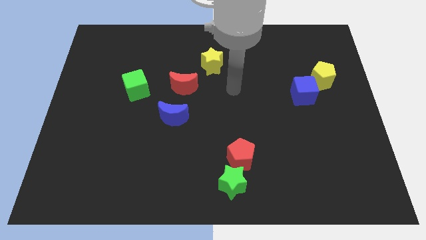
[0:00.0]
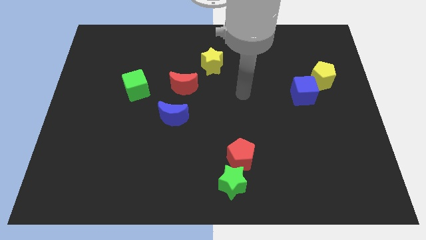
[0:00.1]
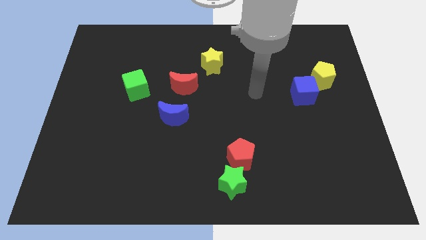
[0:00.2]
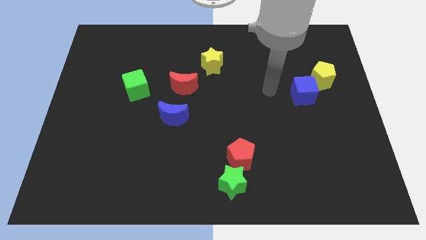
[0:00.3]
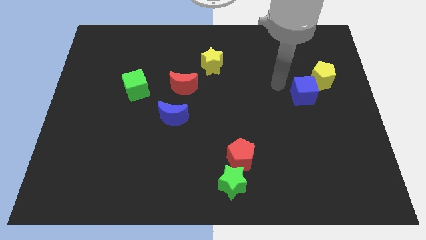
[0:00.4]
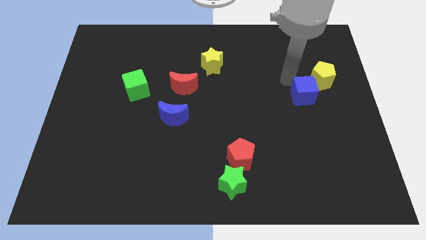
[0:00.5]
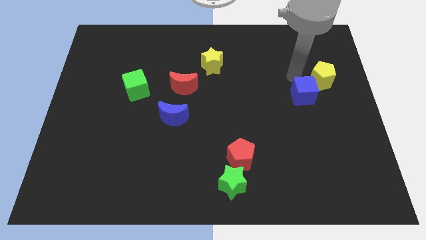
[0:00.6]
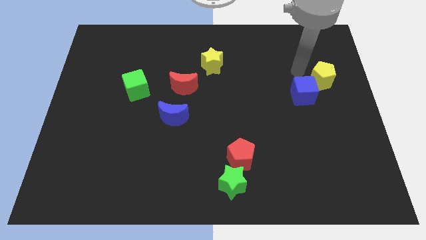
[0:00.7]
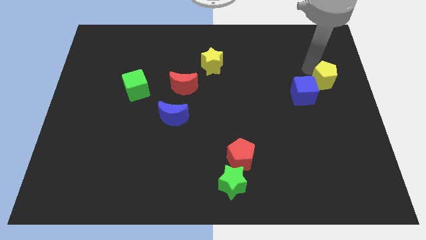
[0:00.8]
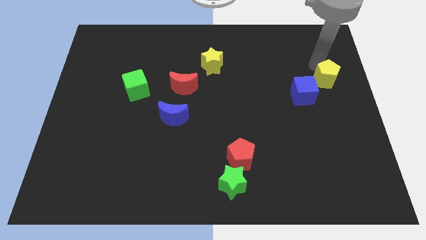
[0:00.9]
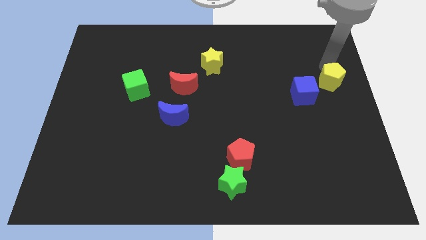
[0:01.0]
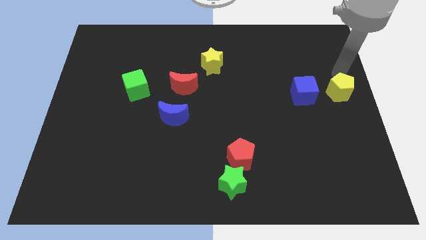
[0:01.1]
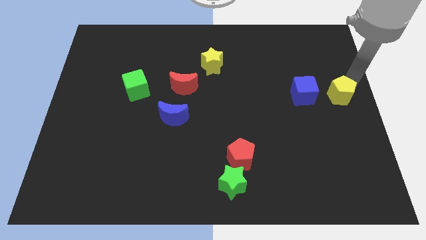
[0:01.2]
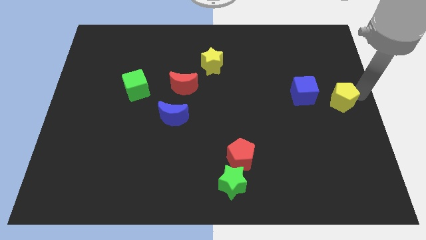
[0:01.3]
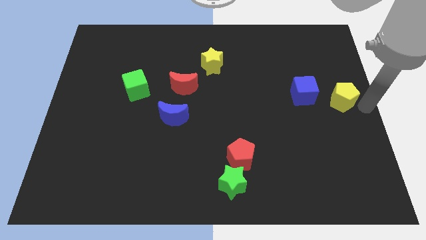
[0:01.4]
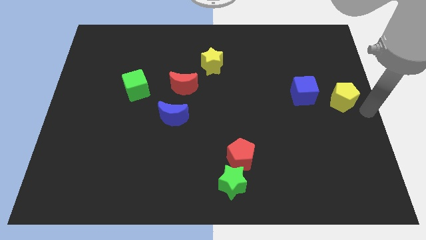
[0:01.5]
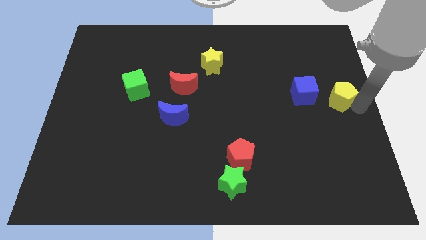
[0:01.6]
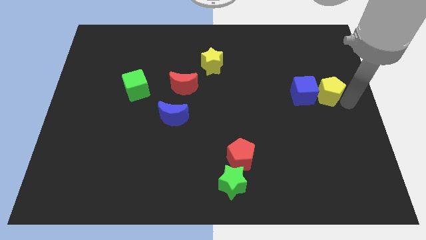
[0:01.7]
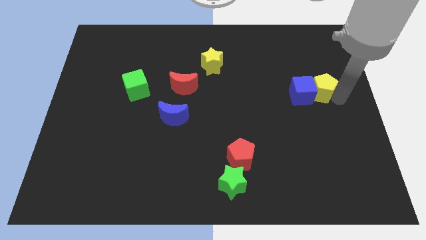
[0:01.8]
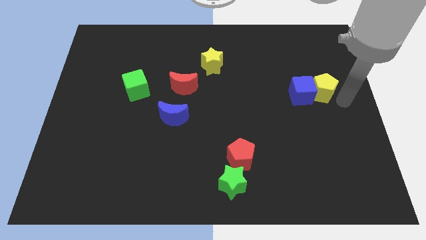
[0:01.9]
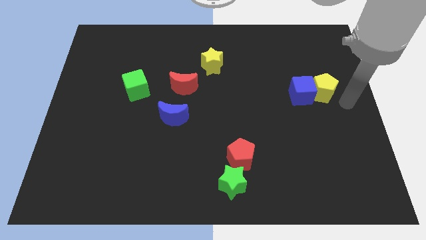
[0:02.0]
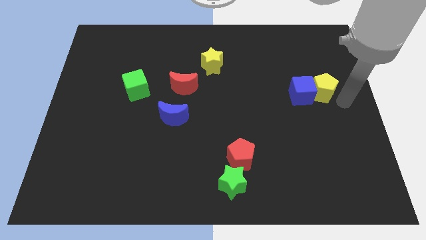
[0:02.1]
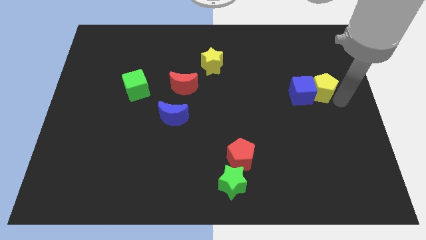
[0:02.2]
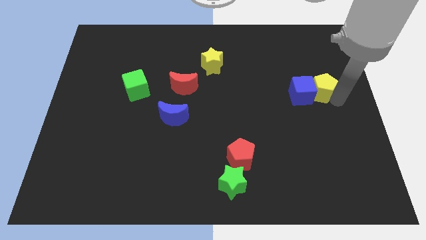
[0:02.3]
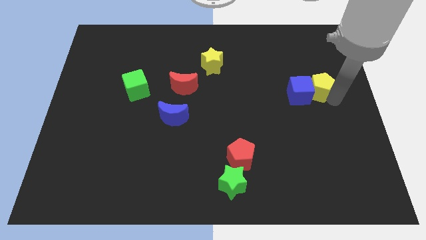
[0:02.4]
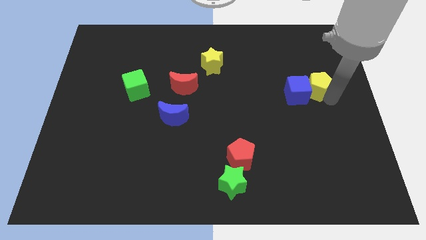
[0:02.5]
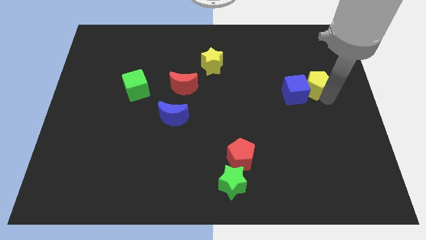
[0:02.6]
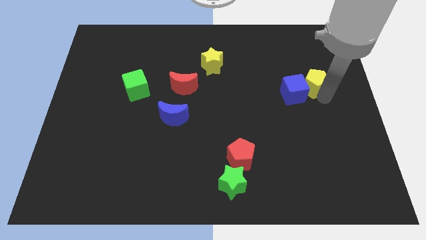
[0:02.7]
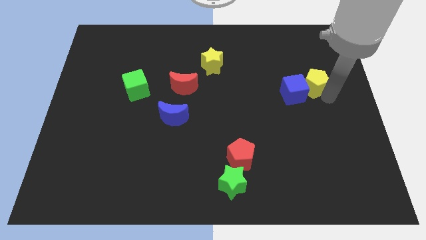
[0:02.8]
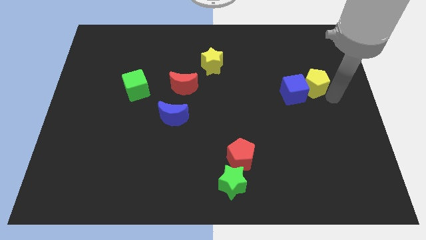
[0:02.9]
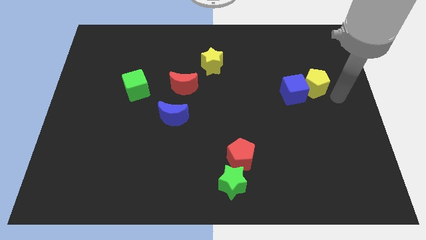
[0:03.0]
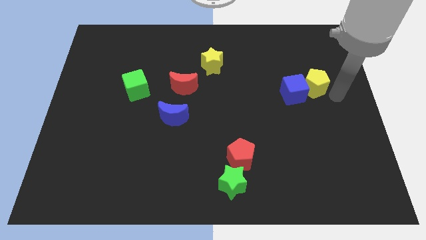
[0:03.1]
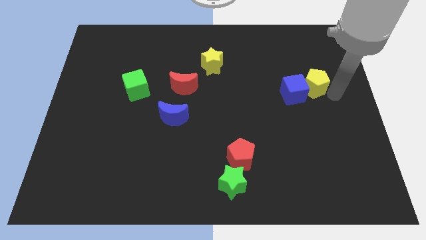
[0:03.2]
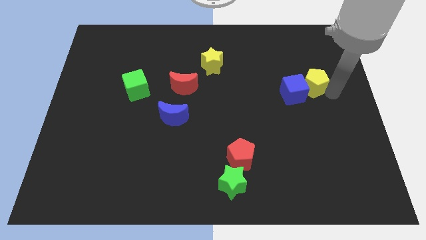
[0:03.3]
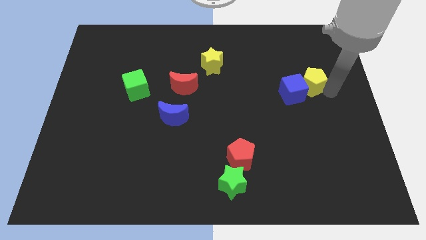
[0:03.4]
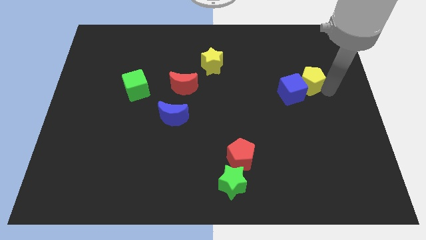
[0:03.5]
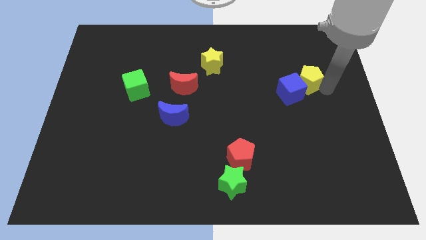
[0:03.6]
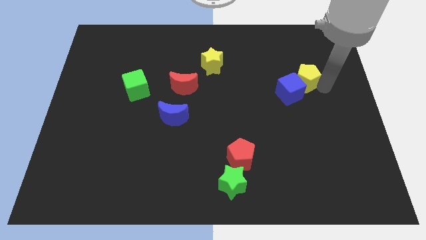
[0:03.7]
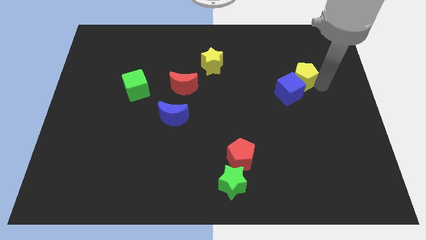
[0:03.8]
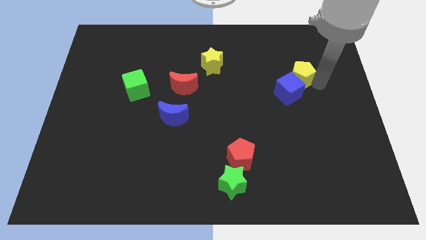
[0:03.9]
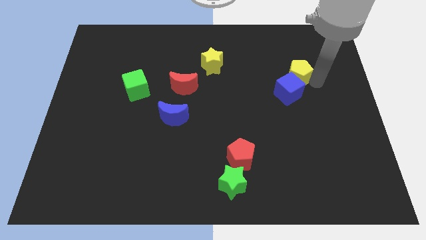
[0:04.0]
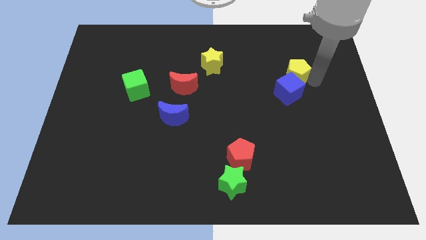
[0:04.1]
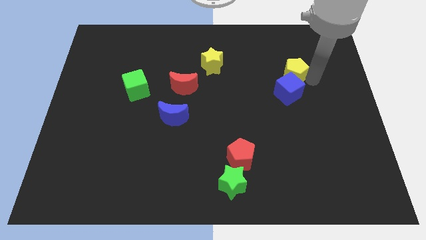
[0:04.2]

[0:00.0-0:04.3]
slightly slide the yellow pentagon left

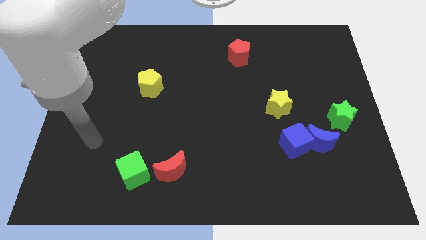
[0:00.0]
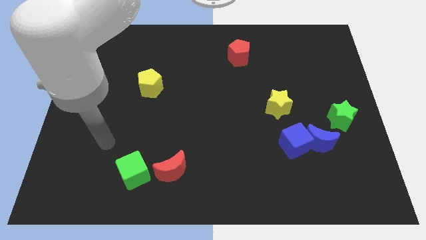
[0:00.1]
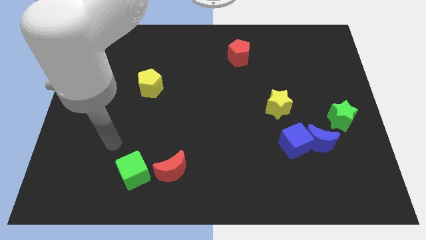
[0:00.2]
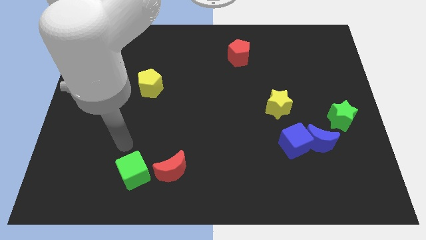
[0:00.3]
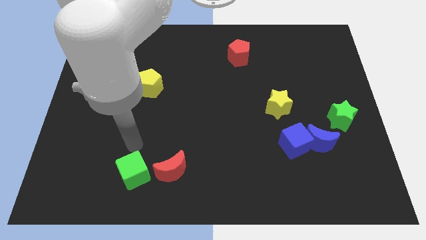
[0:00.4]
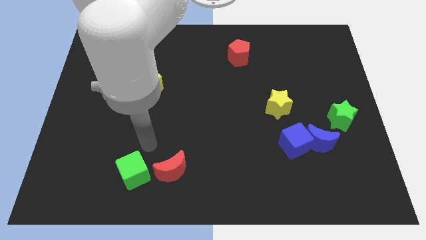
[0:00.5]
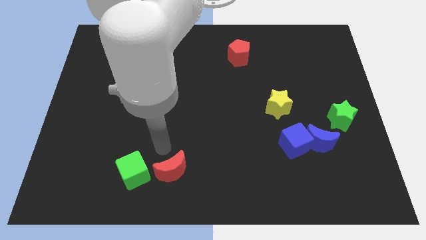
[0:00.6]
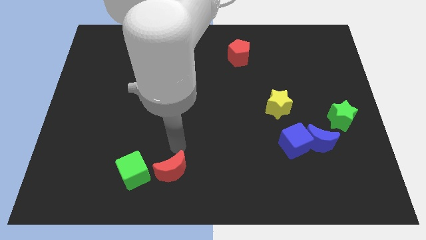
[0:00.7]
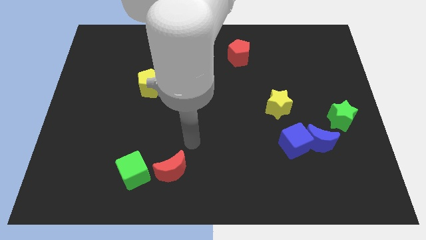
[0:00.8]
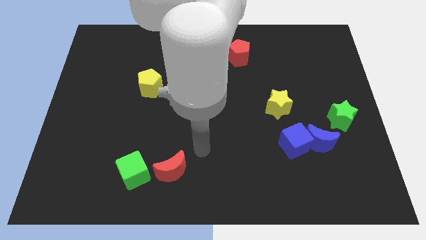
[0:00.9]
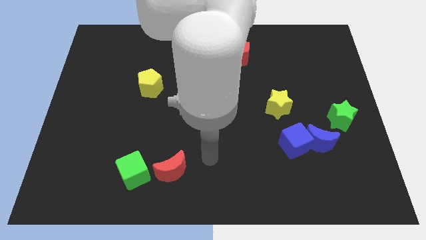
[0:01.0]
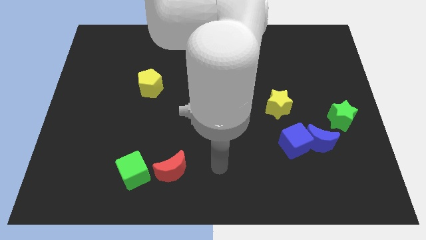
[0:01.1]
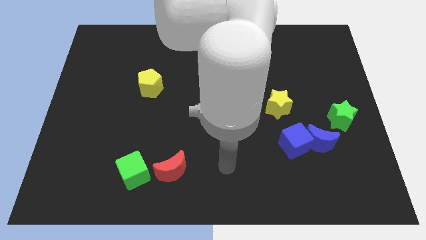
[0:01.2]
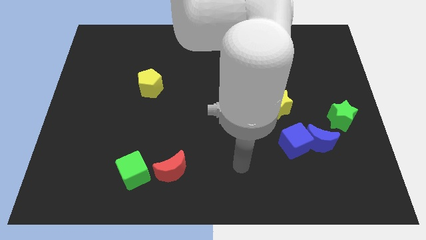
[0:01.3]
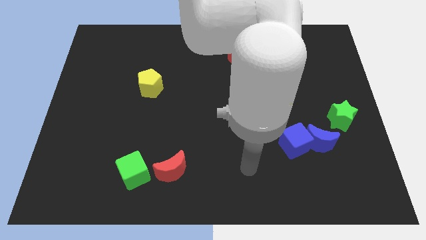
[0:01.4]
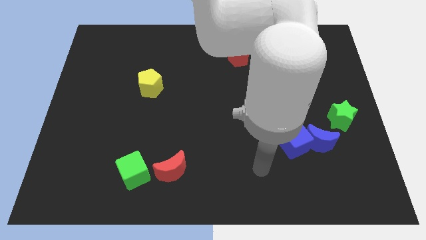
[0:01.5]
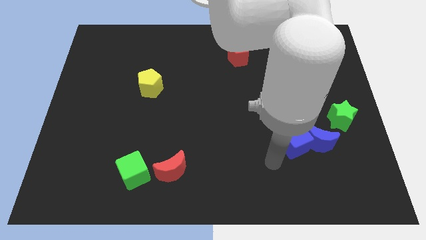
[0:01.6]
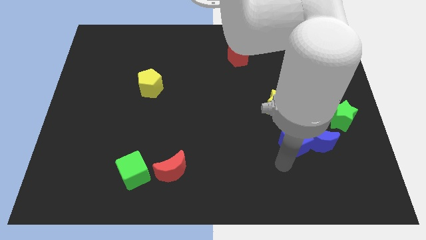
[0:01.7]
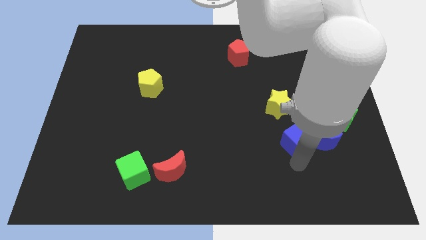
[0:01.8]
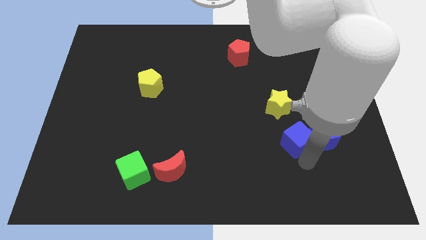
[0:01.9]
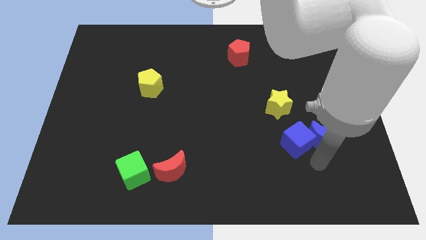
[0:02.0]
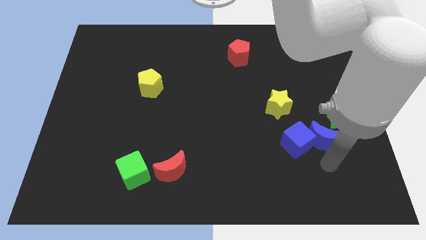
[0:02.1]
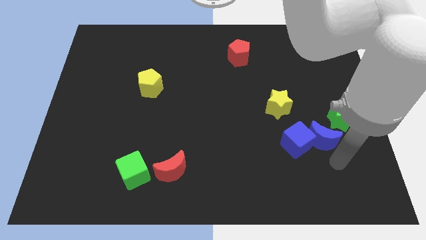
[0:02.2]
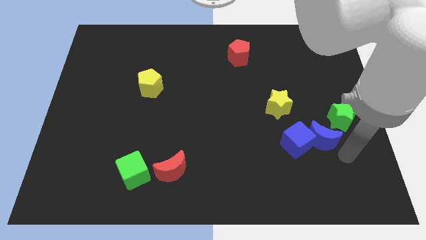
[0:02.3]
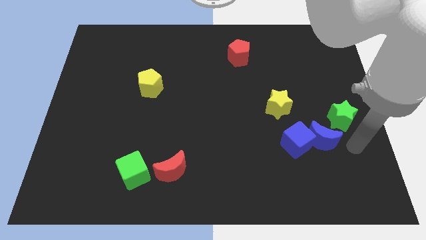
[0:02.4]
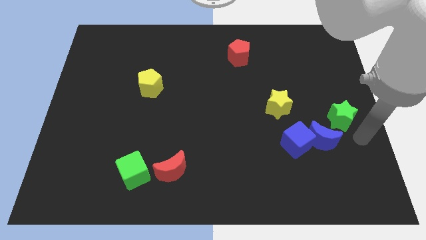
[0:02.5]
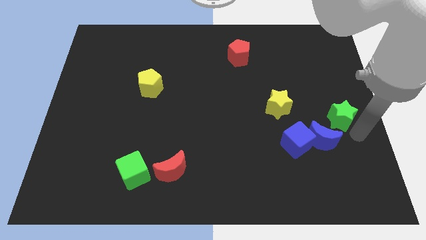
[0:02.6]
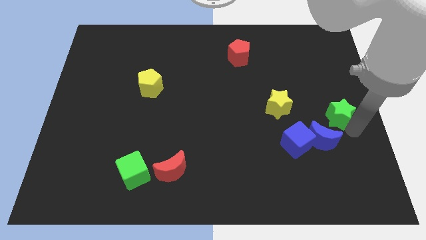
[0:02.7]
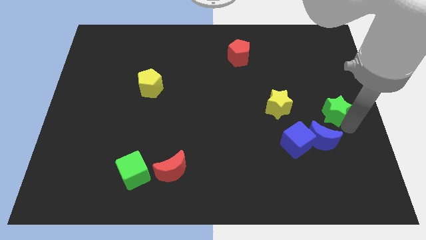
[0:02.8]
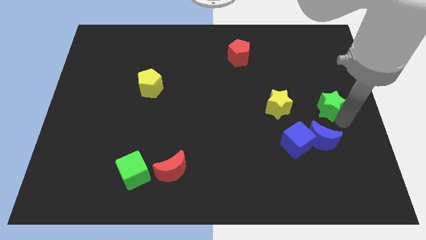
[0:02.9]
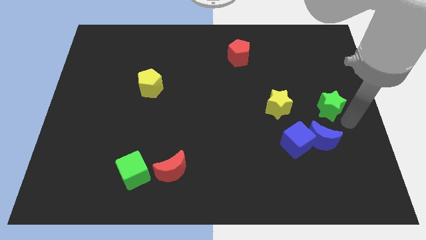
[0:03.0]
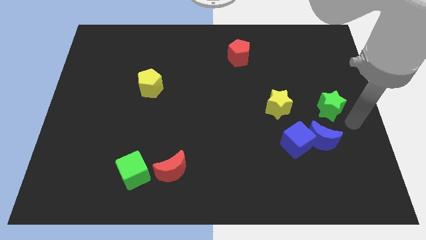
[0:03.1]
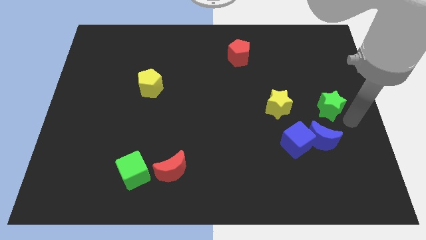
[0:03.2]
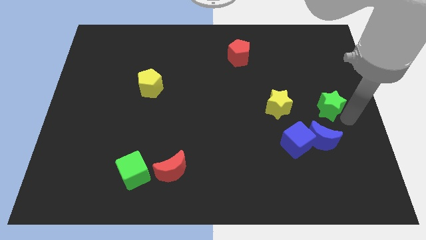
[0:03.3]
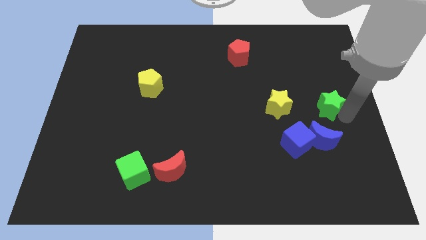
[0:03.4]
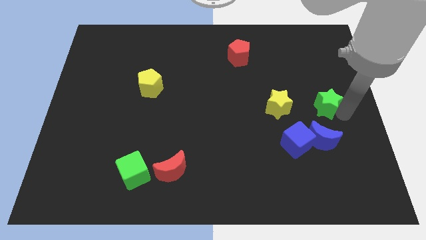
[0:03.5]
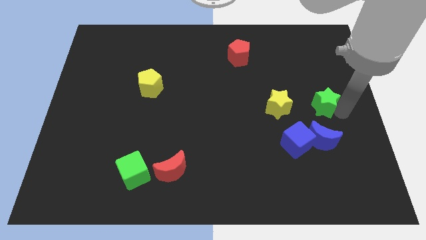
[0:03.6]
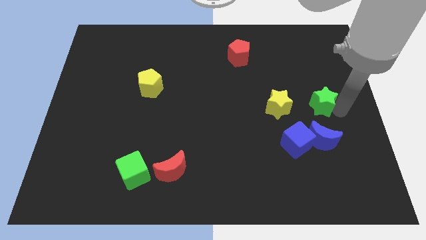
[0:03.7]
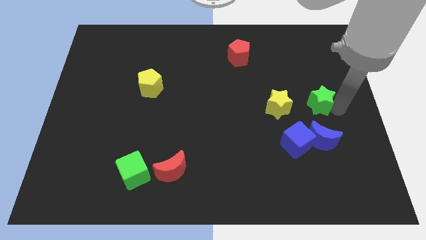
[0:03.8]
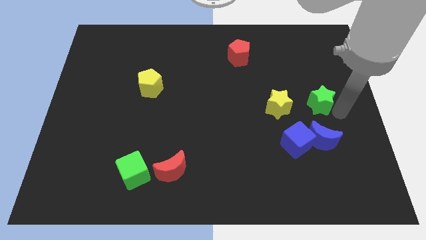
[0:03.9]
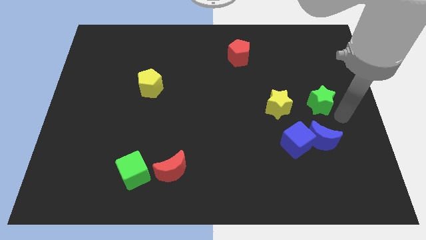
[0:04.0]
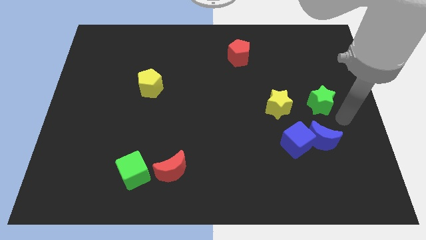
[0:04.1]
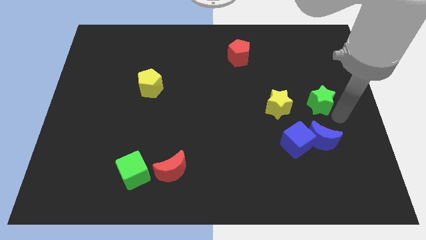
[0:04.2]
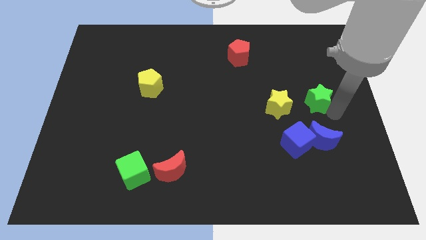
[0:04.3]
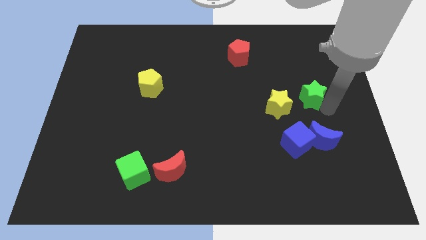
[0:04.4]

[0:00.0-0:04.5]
move the green star somewhat upwards and to the left diagonally
